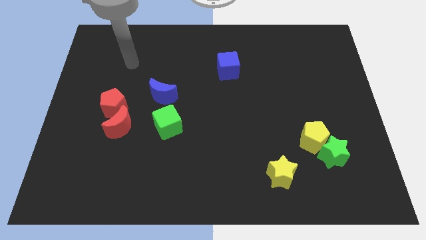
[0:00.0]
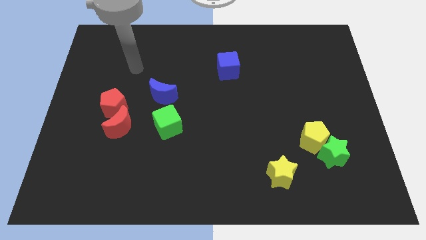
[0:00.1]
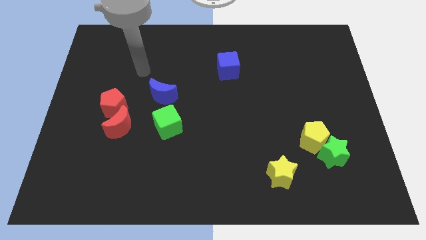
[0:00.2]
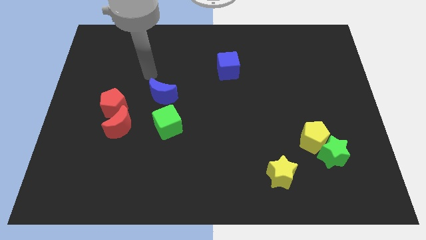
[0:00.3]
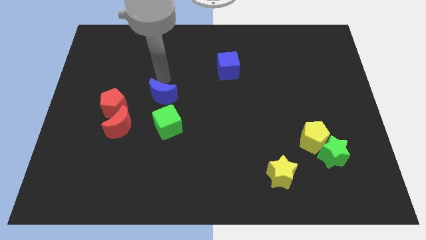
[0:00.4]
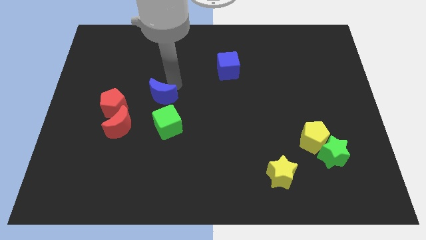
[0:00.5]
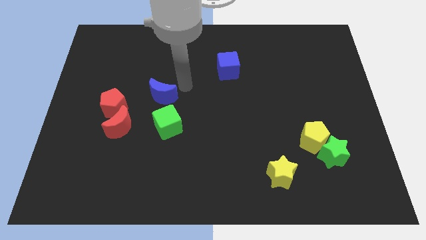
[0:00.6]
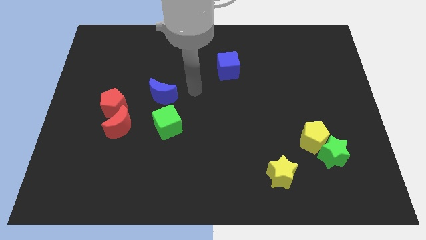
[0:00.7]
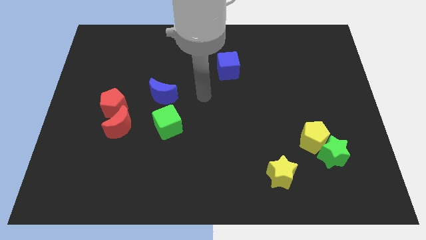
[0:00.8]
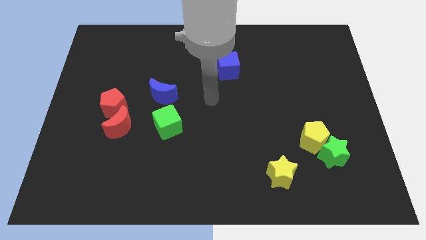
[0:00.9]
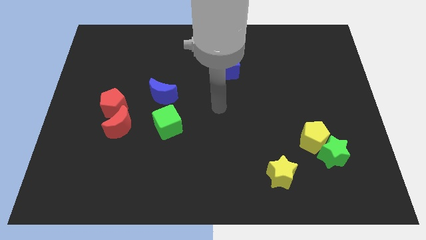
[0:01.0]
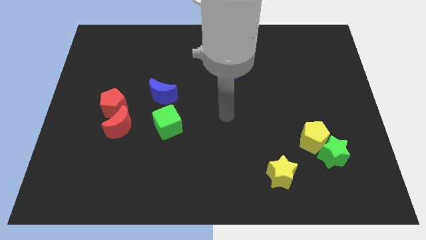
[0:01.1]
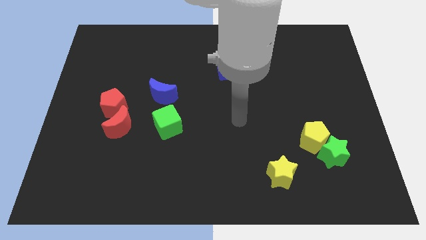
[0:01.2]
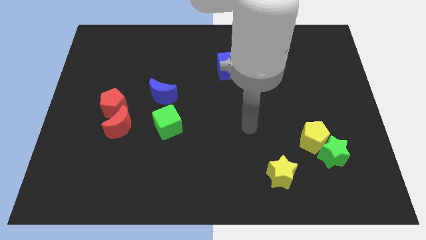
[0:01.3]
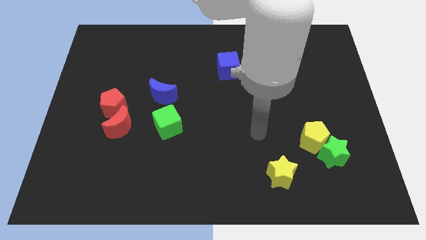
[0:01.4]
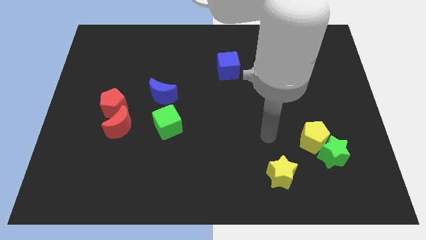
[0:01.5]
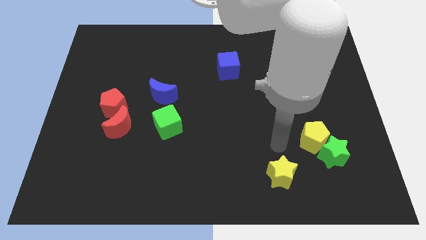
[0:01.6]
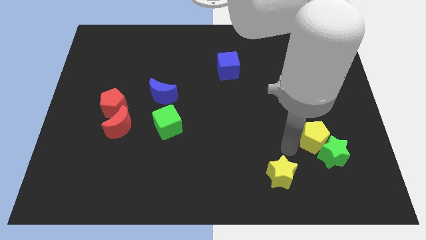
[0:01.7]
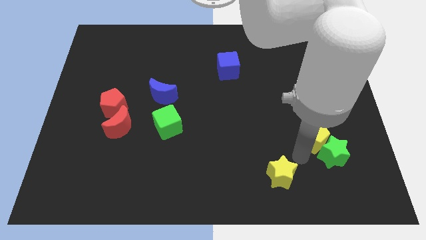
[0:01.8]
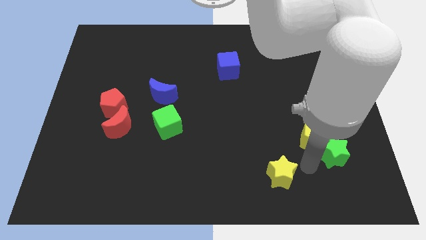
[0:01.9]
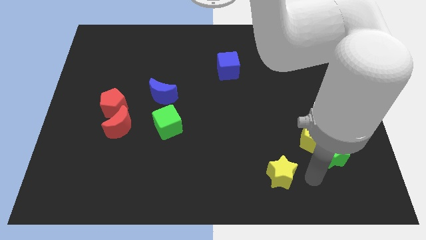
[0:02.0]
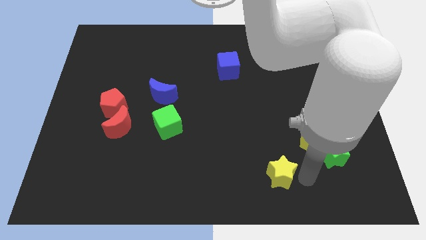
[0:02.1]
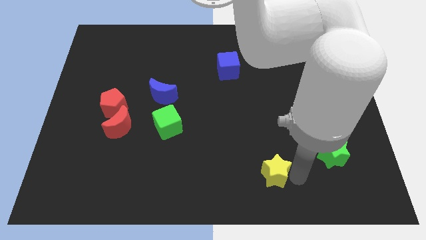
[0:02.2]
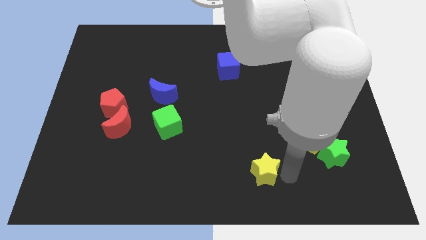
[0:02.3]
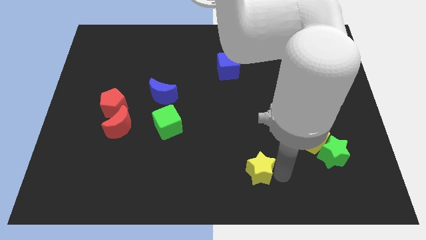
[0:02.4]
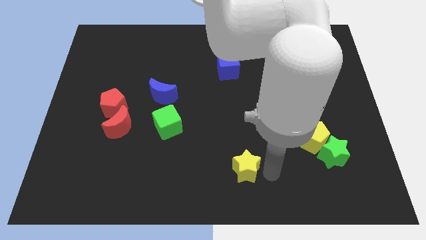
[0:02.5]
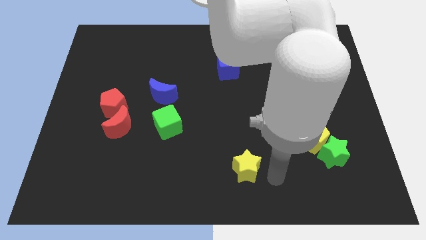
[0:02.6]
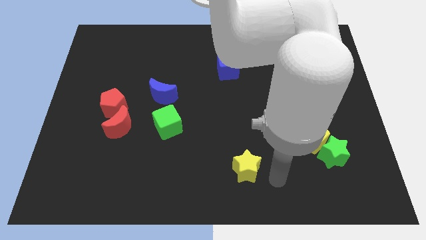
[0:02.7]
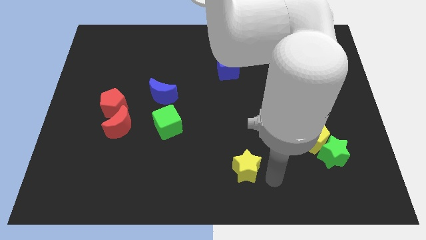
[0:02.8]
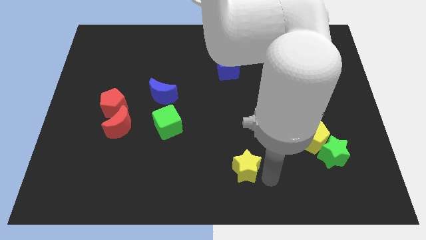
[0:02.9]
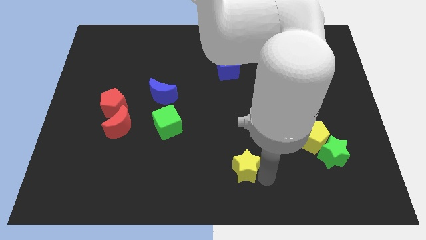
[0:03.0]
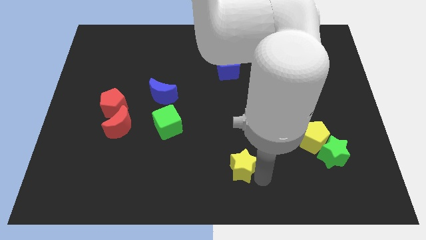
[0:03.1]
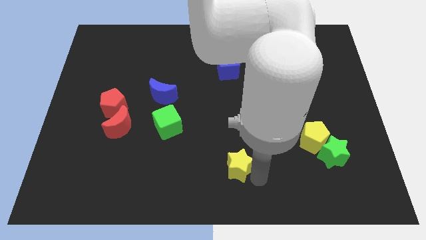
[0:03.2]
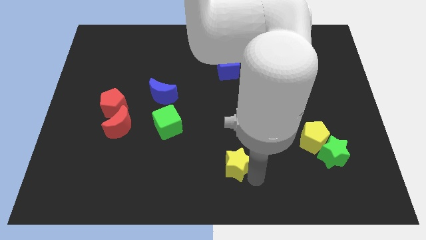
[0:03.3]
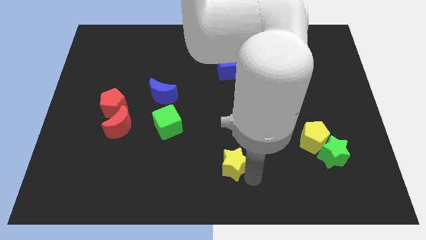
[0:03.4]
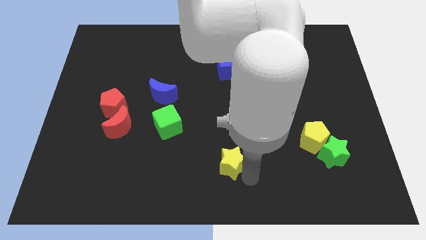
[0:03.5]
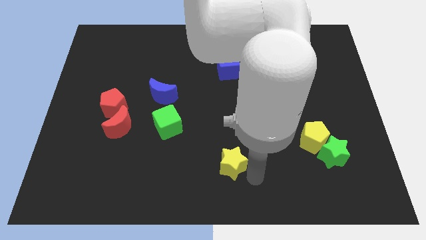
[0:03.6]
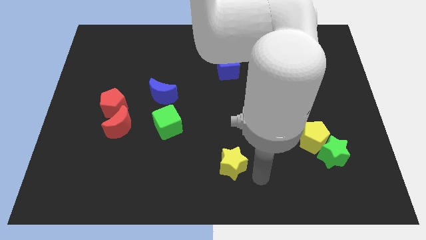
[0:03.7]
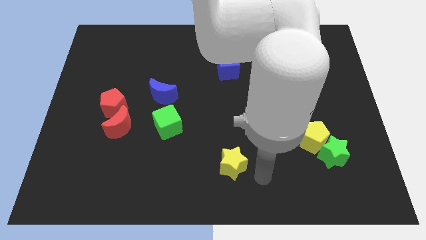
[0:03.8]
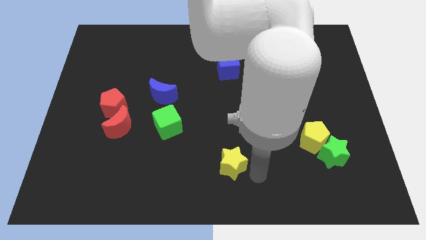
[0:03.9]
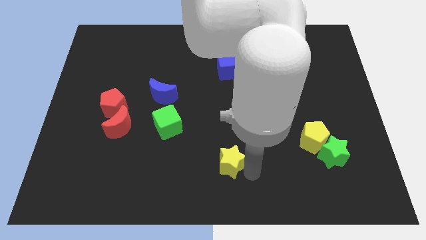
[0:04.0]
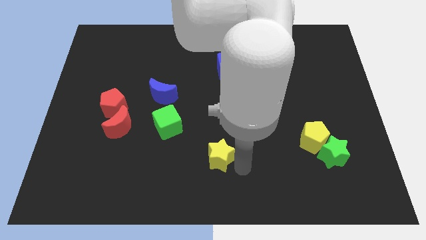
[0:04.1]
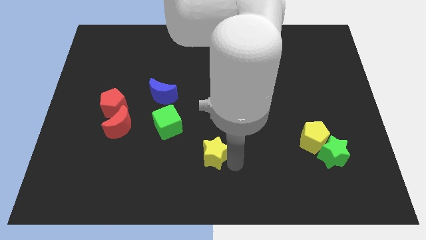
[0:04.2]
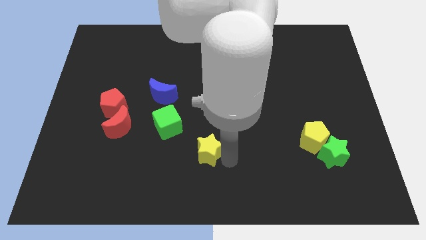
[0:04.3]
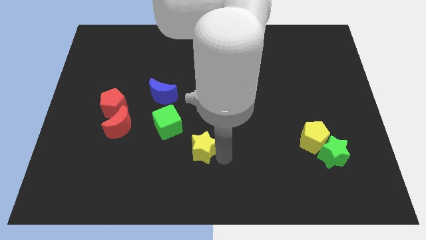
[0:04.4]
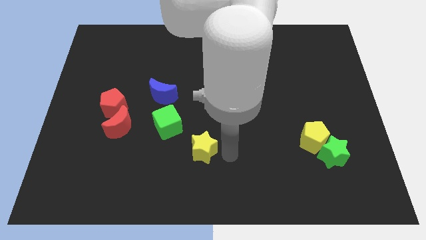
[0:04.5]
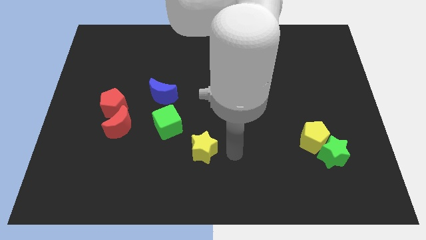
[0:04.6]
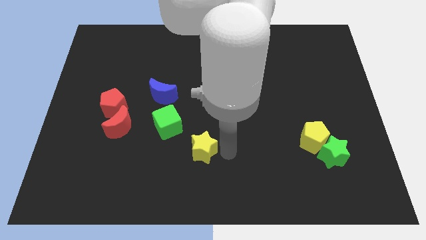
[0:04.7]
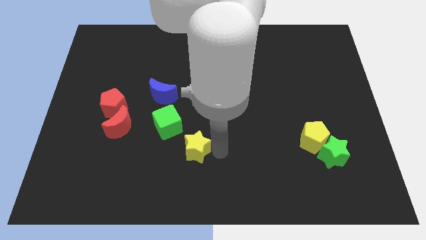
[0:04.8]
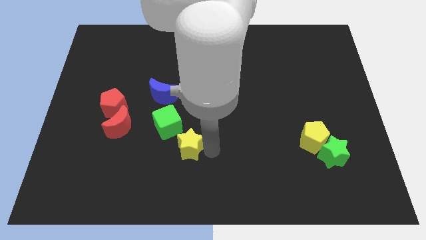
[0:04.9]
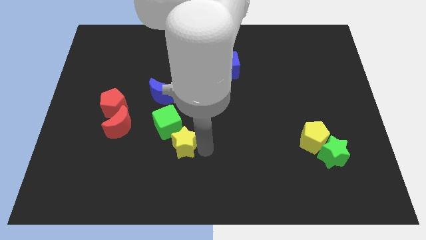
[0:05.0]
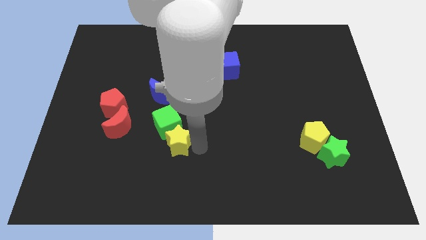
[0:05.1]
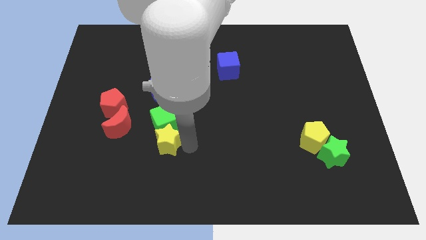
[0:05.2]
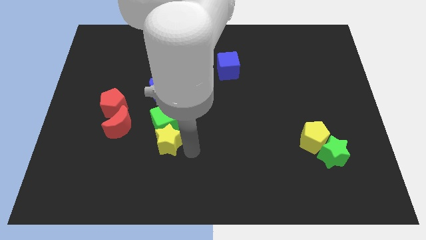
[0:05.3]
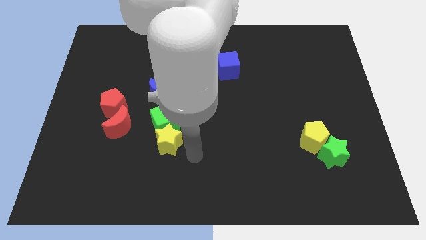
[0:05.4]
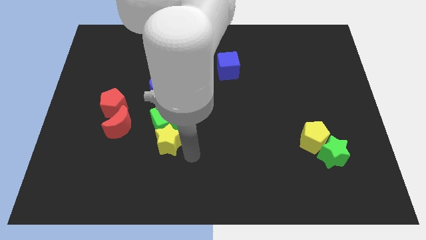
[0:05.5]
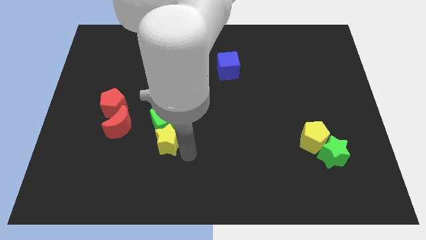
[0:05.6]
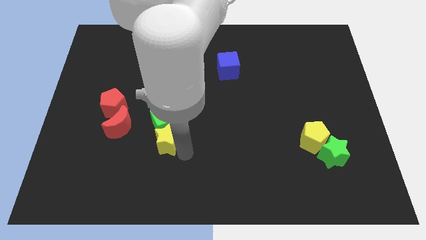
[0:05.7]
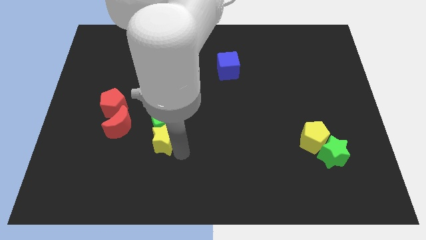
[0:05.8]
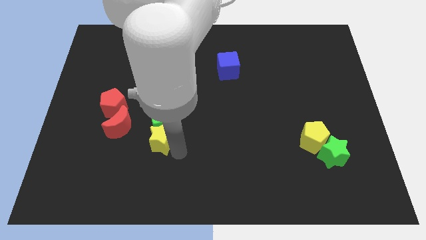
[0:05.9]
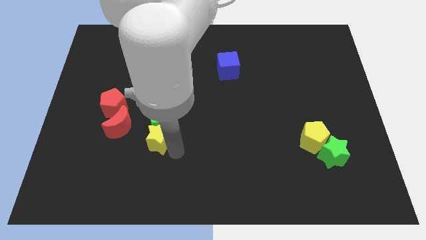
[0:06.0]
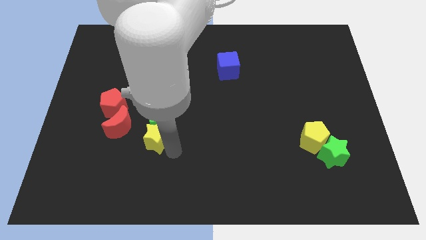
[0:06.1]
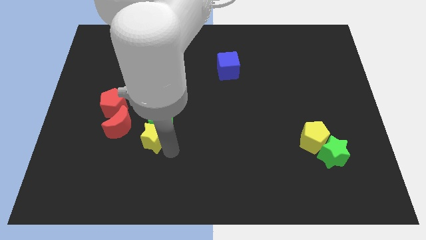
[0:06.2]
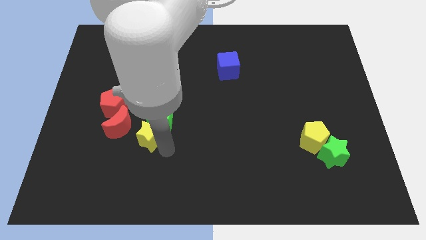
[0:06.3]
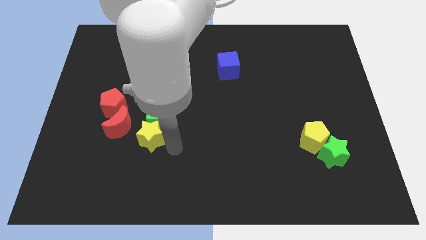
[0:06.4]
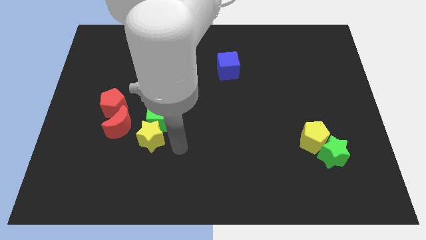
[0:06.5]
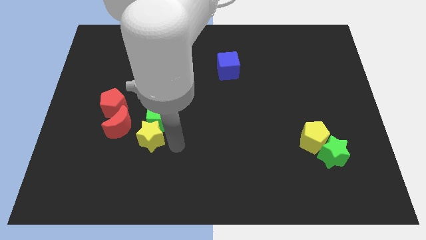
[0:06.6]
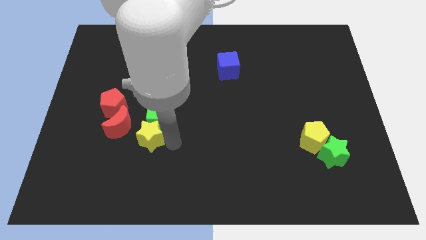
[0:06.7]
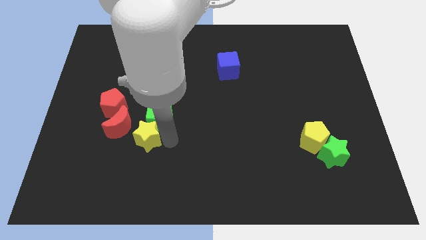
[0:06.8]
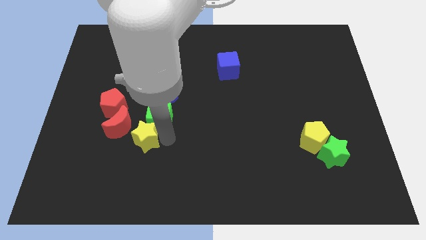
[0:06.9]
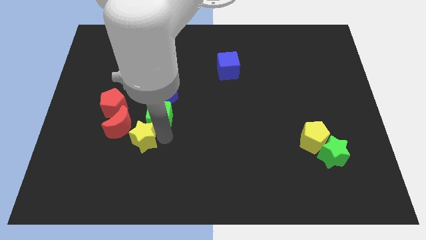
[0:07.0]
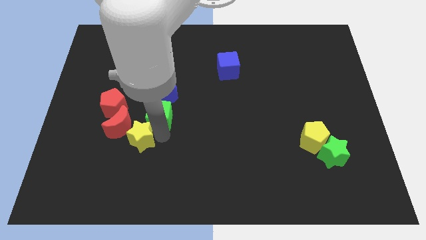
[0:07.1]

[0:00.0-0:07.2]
push the yellow star next to the red moon
